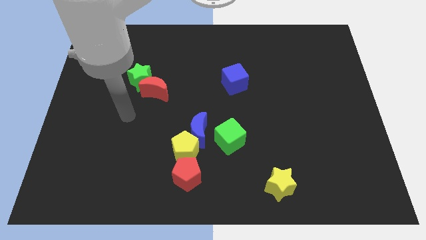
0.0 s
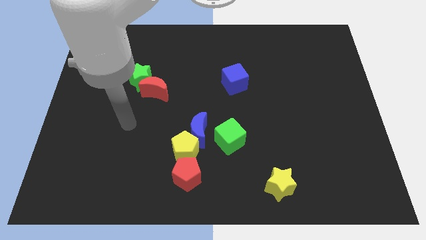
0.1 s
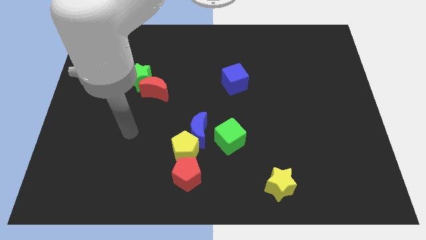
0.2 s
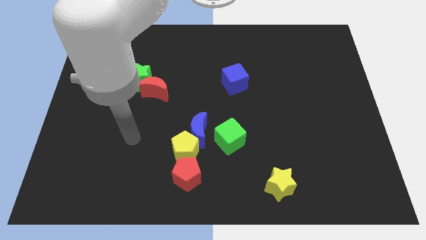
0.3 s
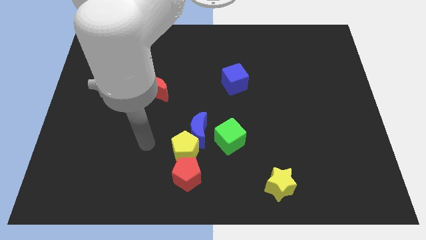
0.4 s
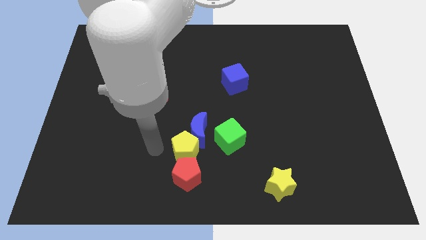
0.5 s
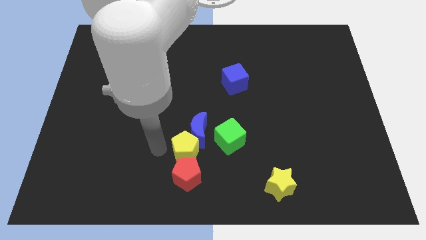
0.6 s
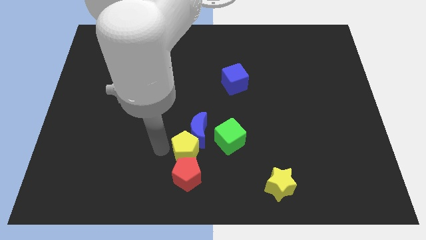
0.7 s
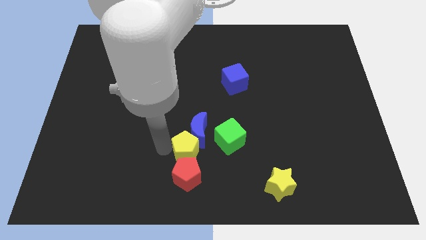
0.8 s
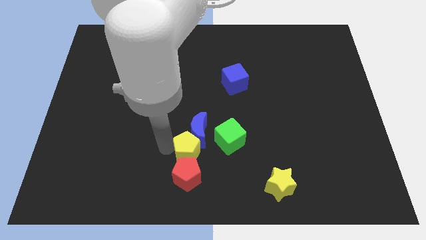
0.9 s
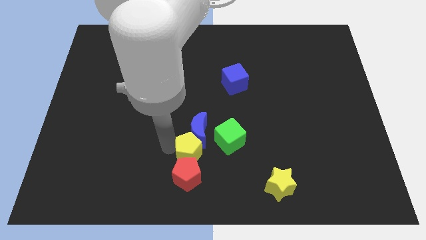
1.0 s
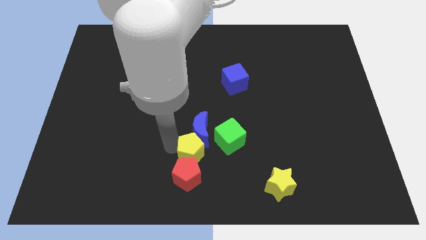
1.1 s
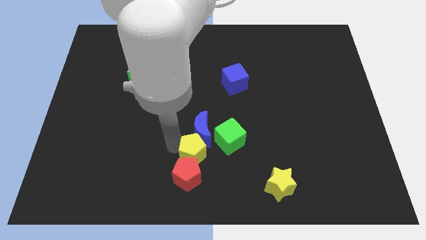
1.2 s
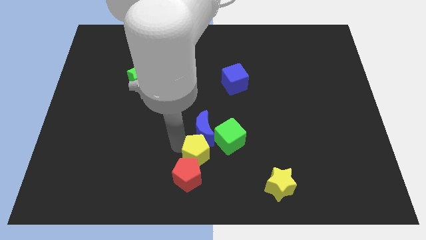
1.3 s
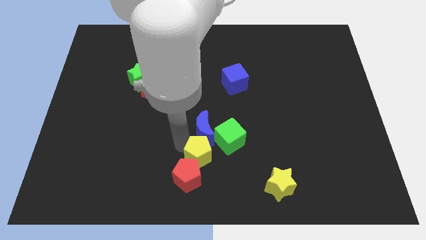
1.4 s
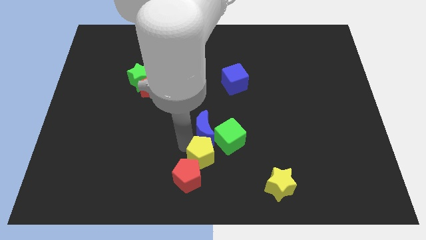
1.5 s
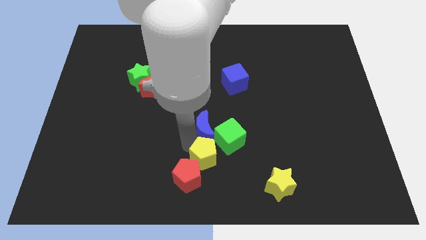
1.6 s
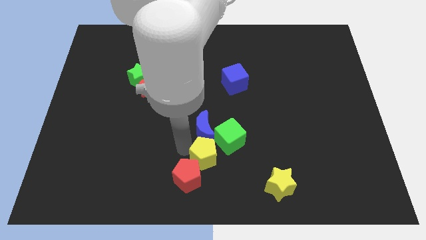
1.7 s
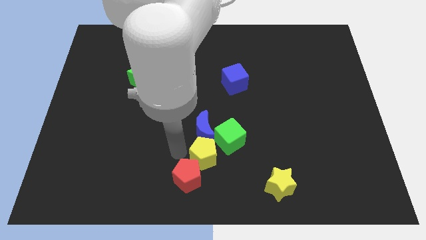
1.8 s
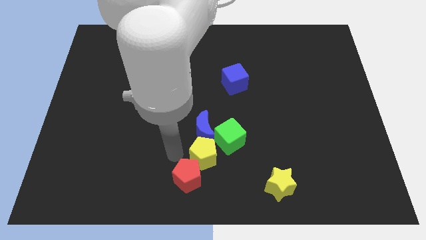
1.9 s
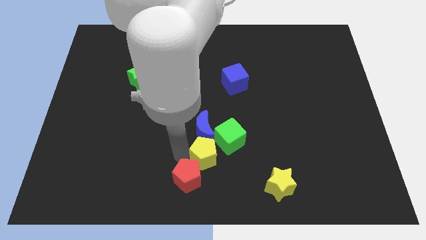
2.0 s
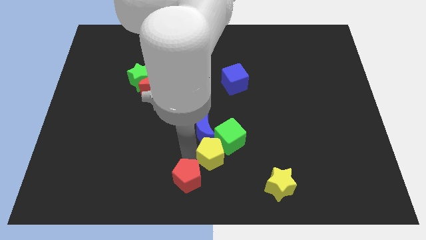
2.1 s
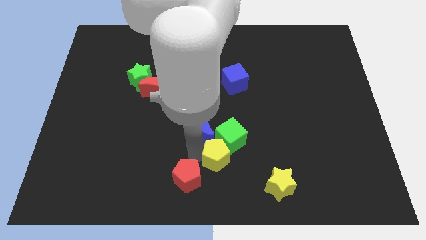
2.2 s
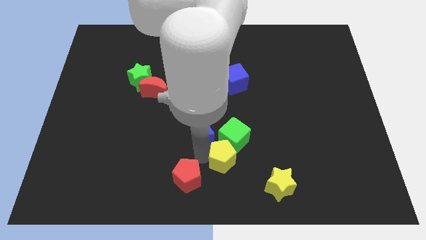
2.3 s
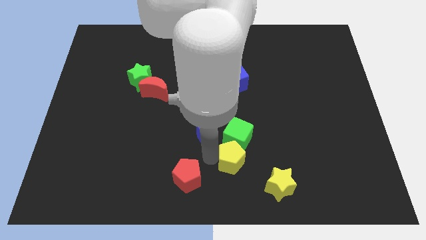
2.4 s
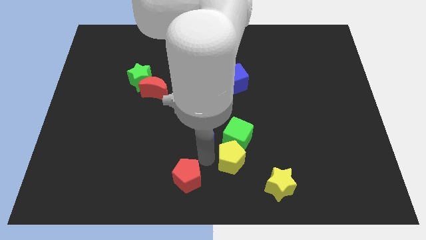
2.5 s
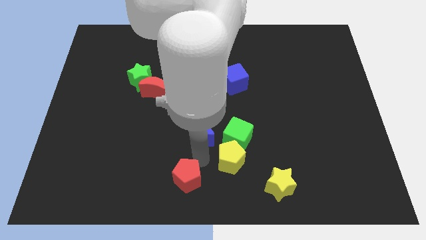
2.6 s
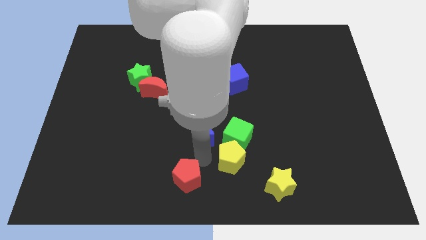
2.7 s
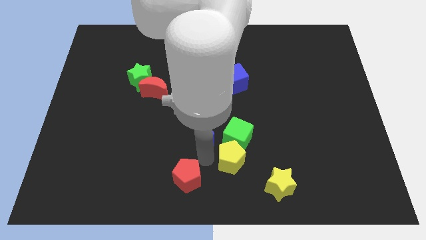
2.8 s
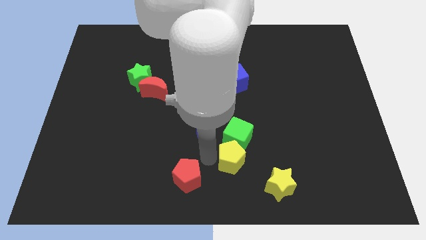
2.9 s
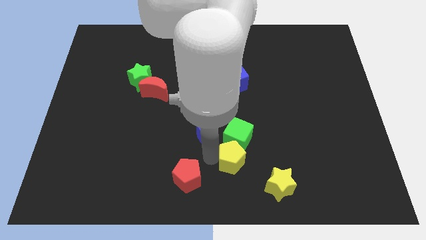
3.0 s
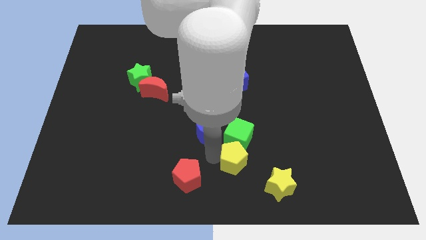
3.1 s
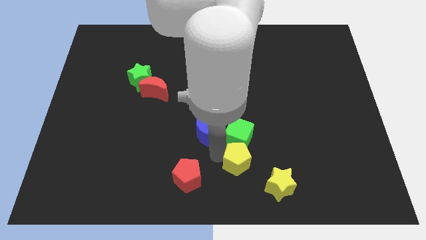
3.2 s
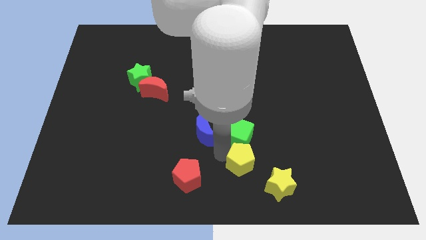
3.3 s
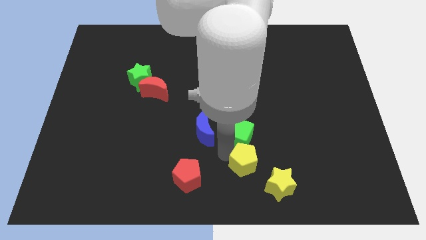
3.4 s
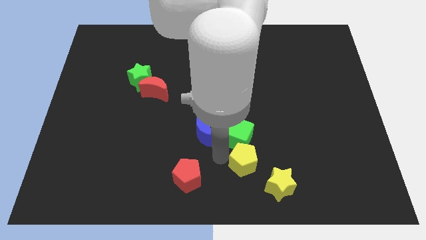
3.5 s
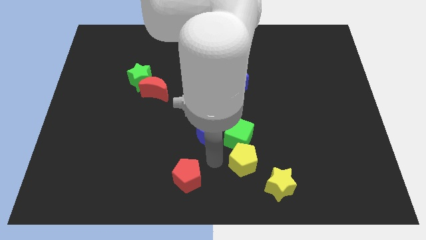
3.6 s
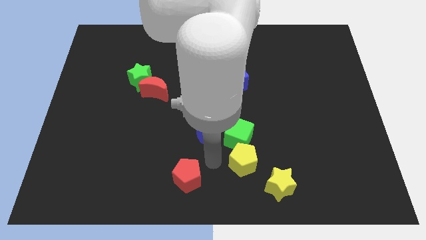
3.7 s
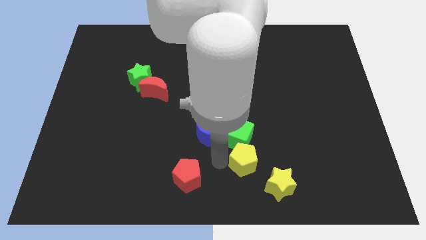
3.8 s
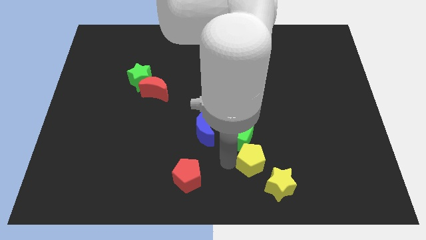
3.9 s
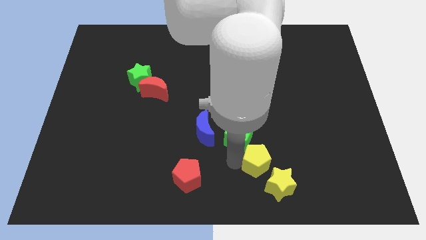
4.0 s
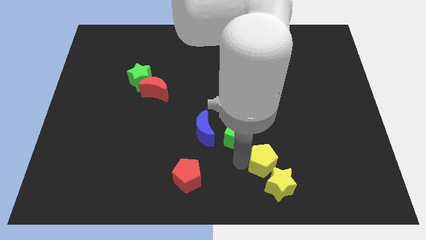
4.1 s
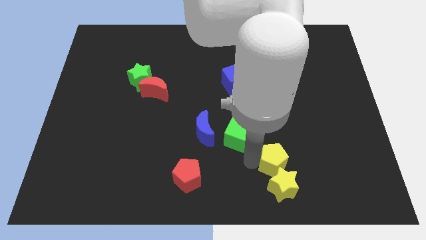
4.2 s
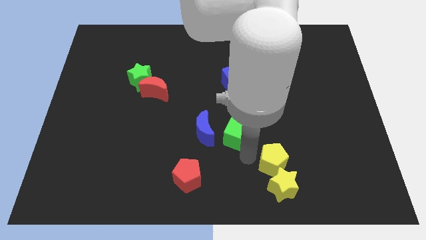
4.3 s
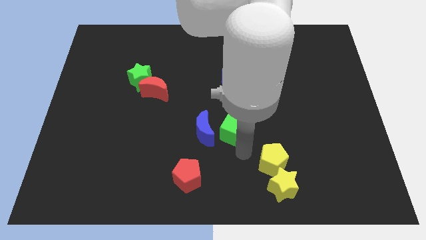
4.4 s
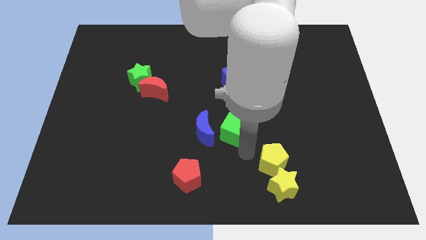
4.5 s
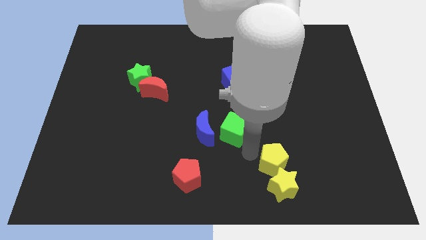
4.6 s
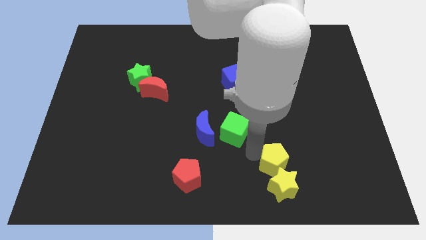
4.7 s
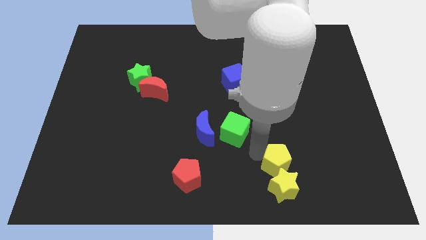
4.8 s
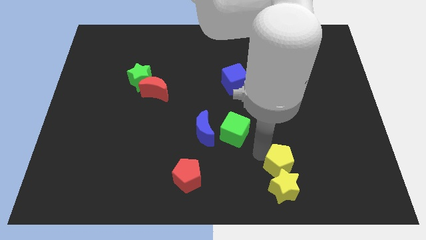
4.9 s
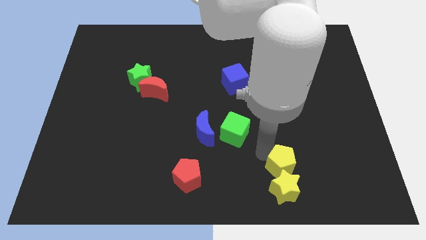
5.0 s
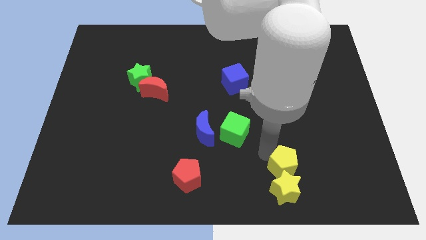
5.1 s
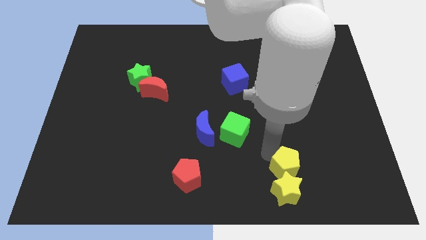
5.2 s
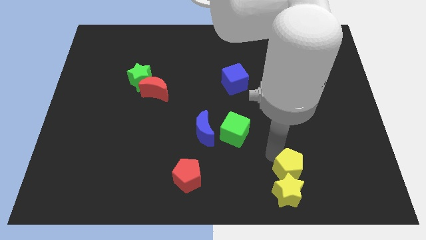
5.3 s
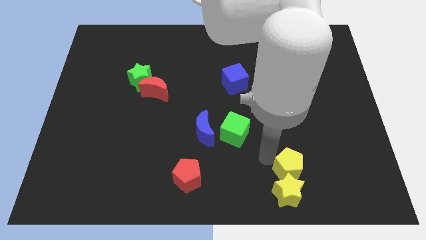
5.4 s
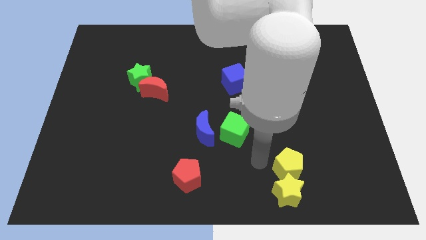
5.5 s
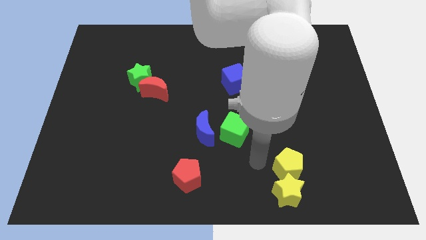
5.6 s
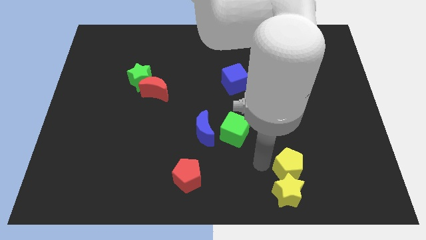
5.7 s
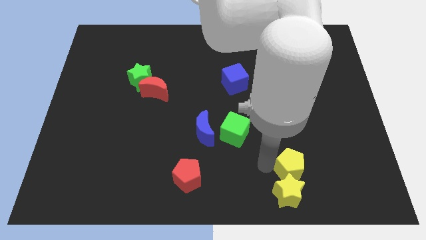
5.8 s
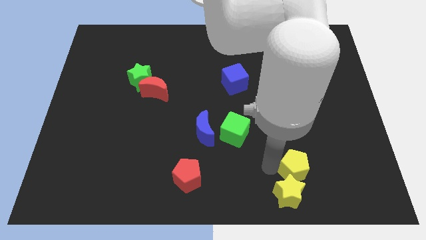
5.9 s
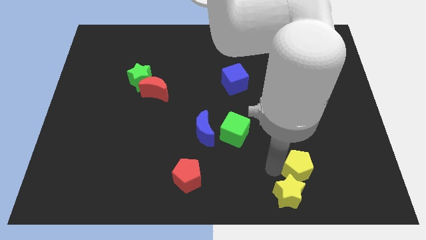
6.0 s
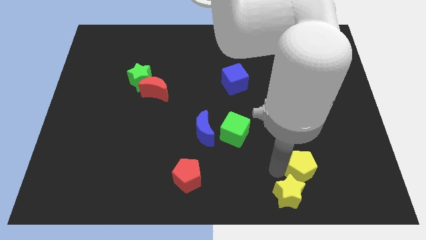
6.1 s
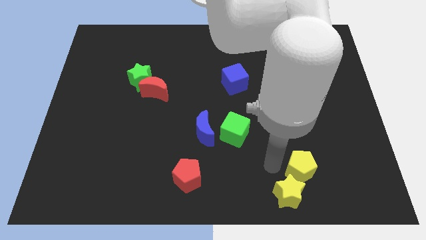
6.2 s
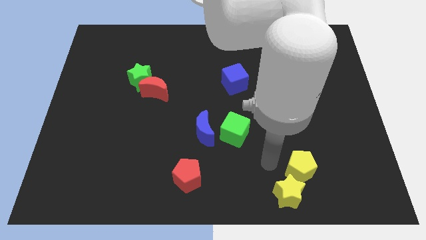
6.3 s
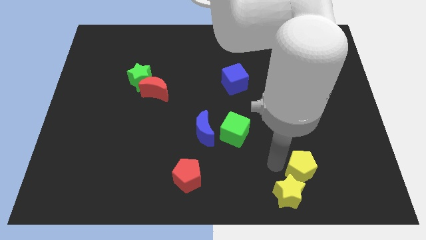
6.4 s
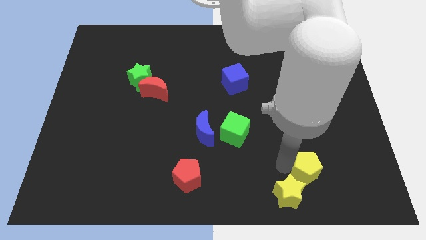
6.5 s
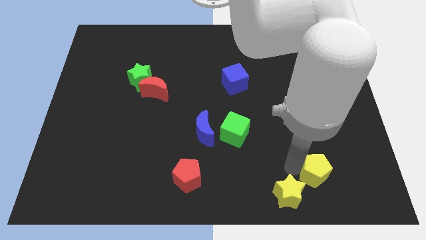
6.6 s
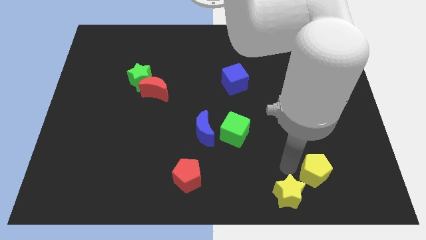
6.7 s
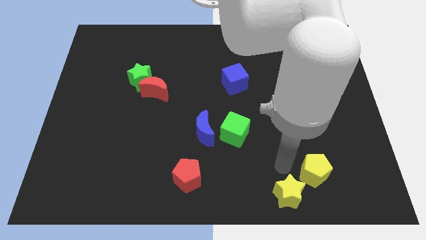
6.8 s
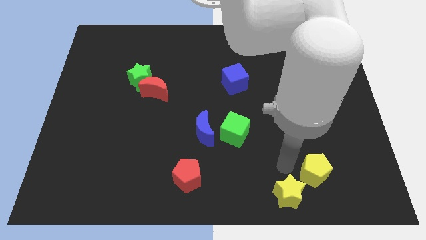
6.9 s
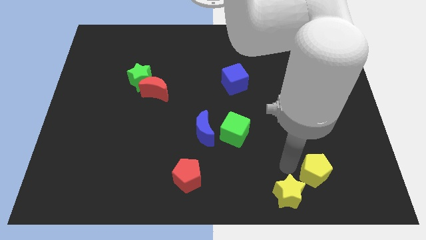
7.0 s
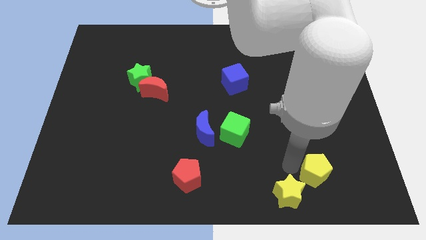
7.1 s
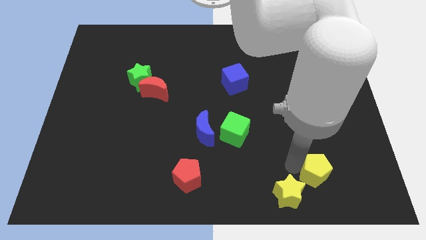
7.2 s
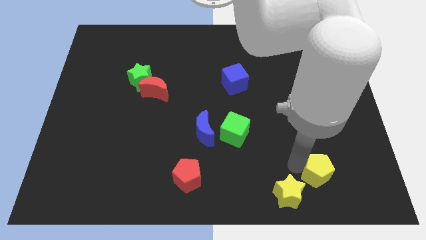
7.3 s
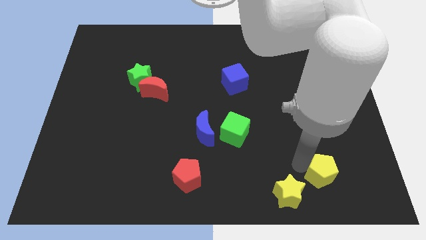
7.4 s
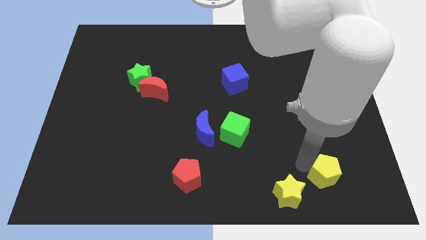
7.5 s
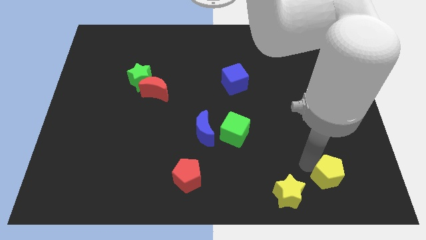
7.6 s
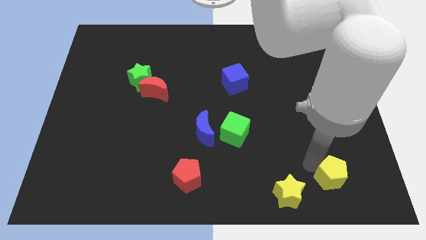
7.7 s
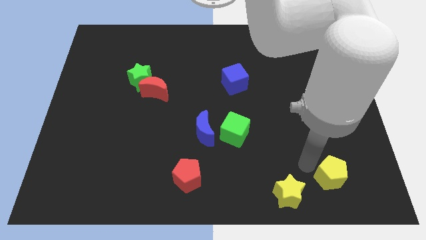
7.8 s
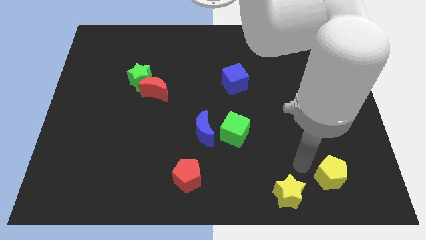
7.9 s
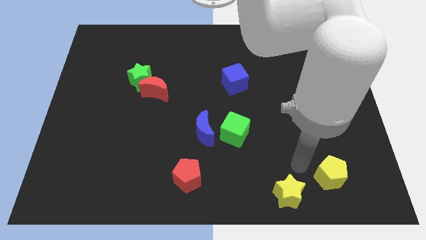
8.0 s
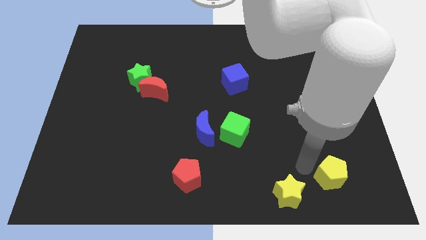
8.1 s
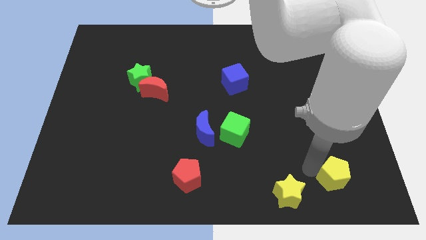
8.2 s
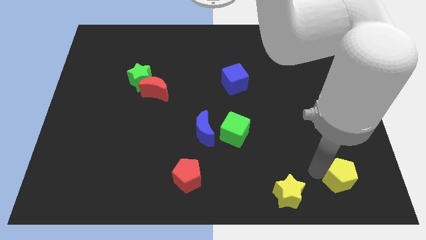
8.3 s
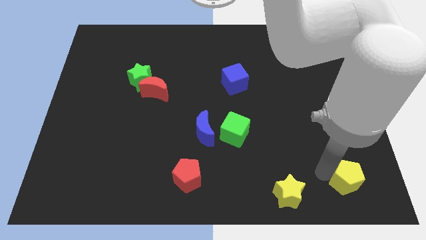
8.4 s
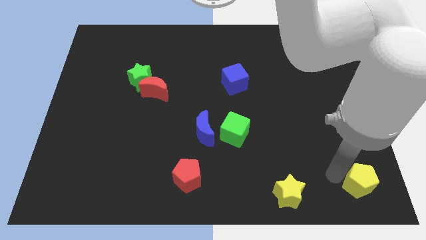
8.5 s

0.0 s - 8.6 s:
slide the yellow pentagon to the bottom right of the board
